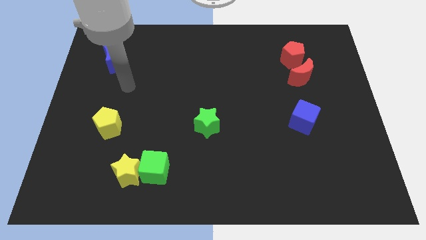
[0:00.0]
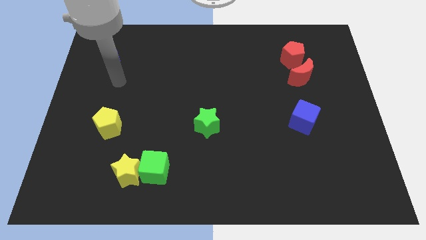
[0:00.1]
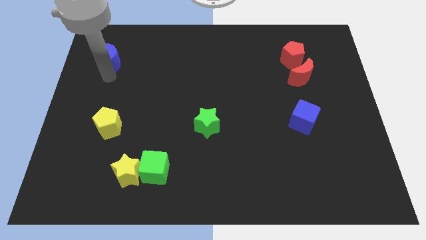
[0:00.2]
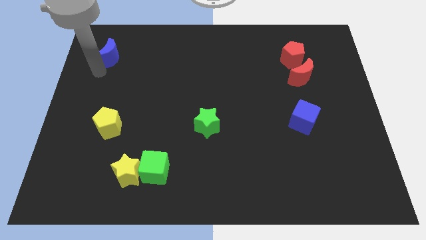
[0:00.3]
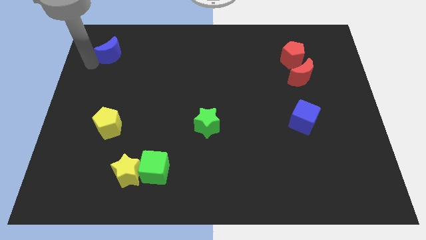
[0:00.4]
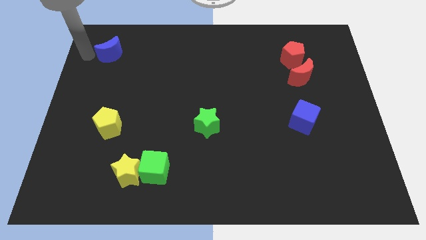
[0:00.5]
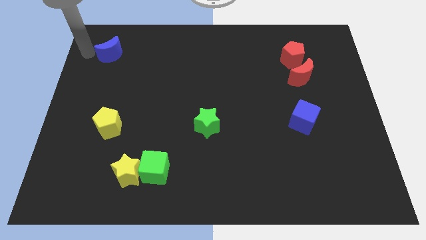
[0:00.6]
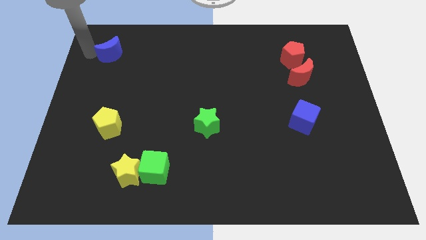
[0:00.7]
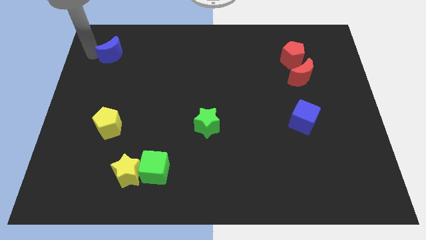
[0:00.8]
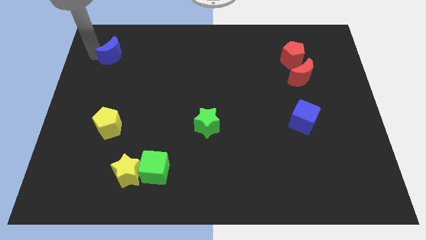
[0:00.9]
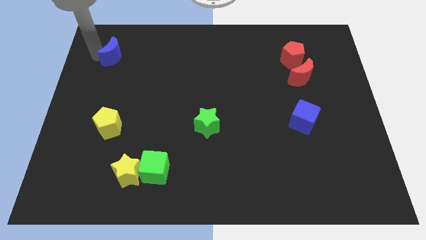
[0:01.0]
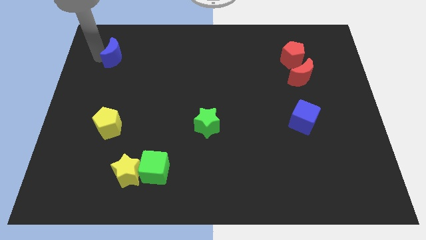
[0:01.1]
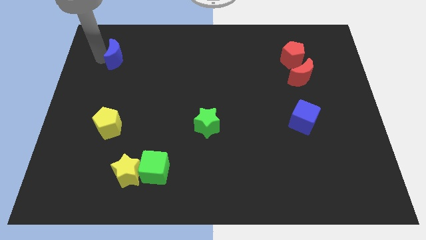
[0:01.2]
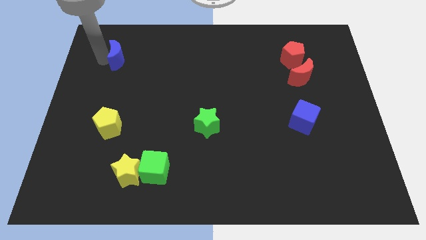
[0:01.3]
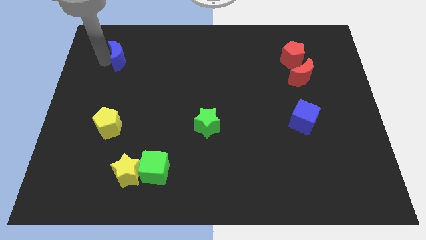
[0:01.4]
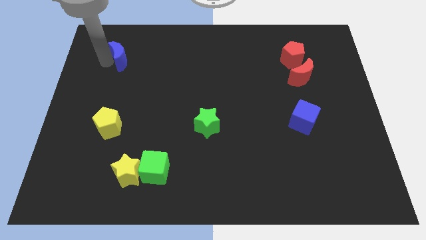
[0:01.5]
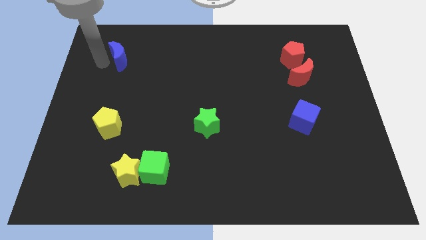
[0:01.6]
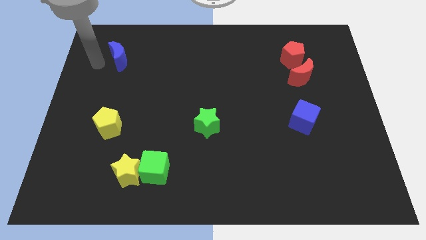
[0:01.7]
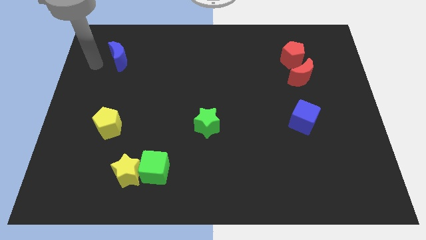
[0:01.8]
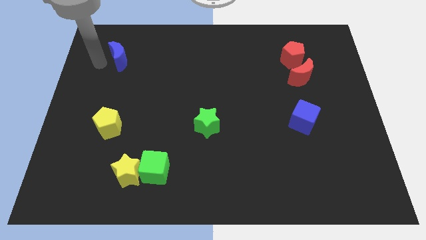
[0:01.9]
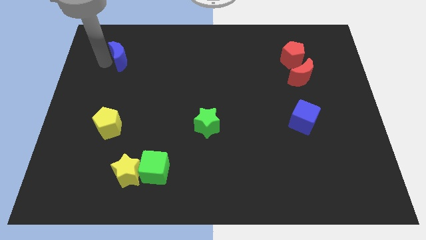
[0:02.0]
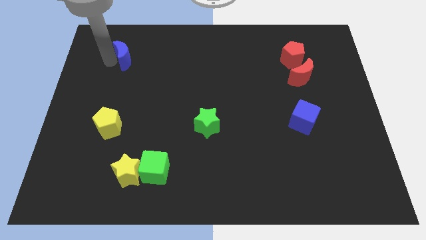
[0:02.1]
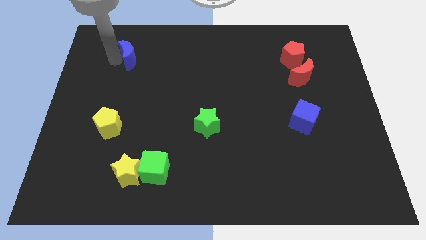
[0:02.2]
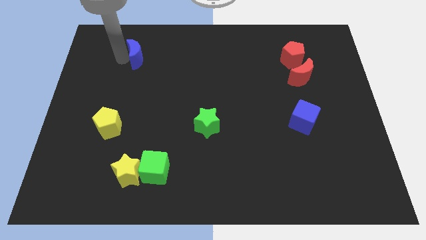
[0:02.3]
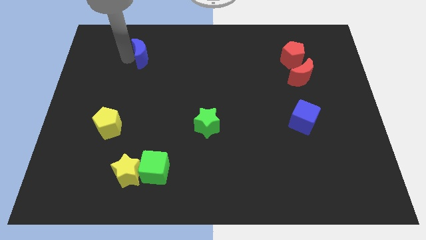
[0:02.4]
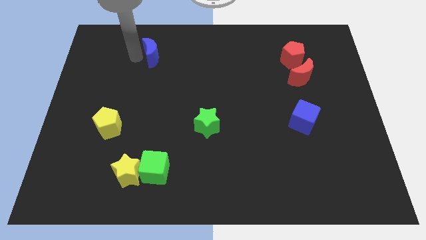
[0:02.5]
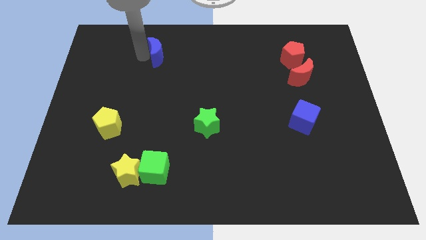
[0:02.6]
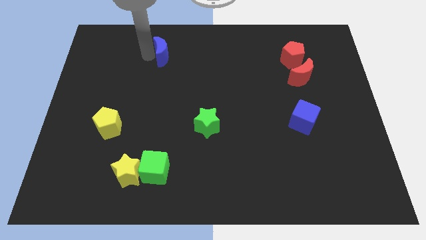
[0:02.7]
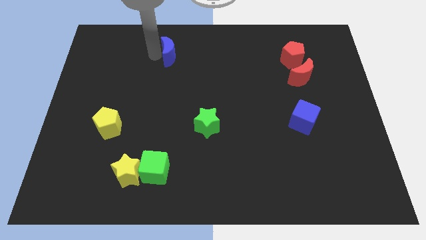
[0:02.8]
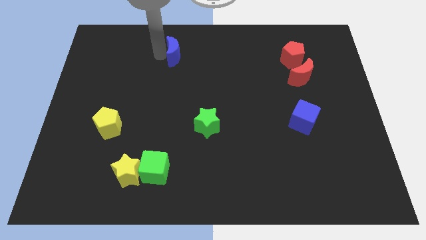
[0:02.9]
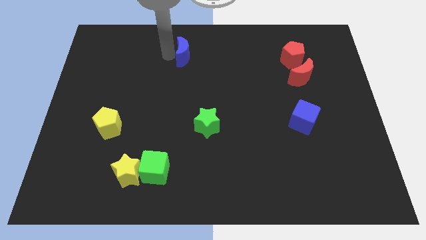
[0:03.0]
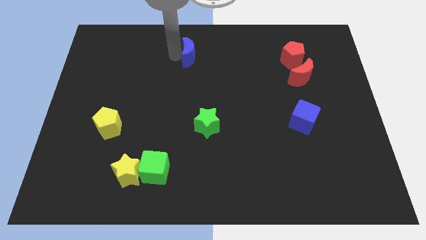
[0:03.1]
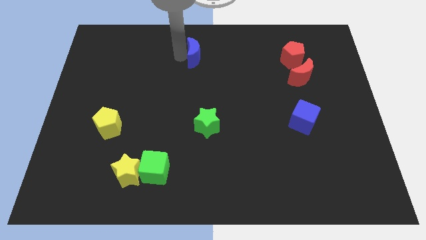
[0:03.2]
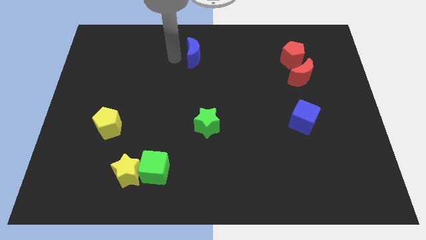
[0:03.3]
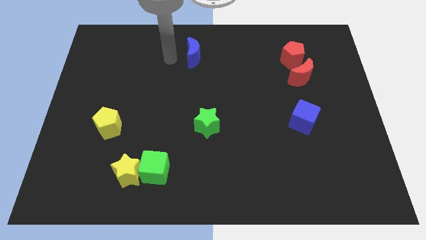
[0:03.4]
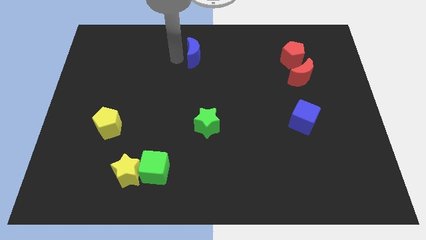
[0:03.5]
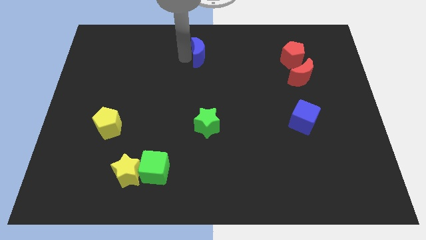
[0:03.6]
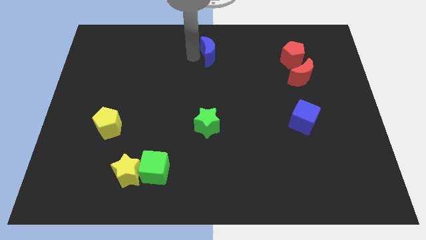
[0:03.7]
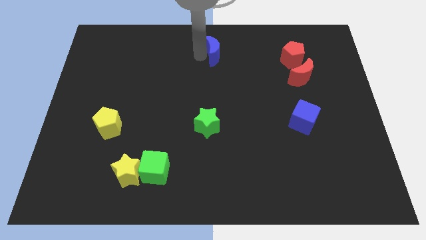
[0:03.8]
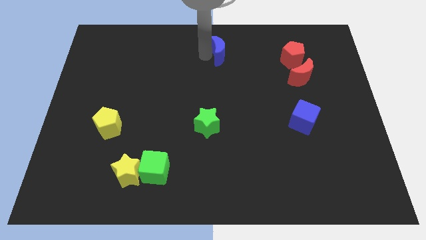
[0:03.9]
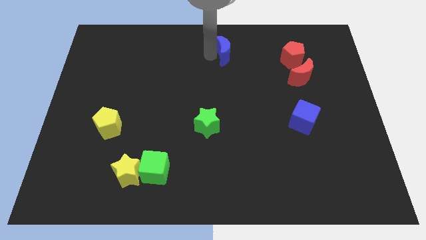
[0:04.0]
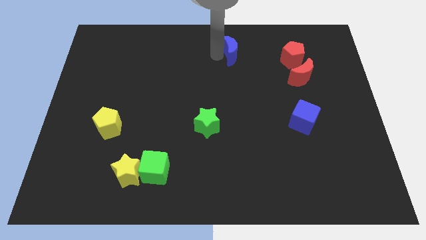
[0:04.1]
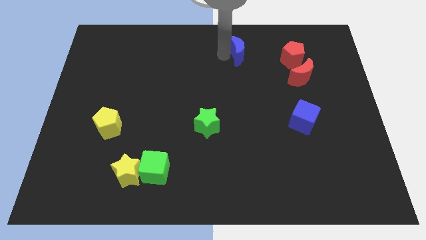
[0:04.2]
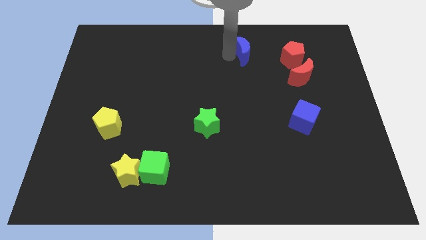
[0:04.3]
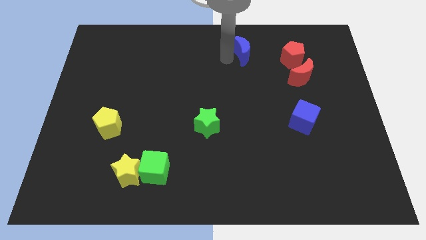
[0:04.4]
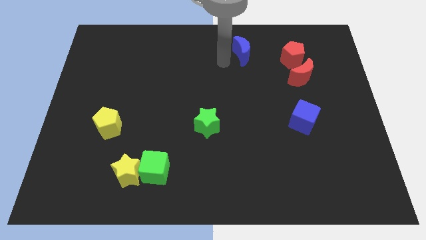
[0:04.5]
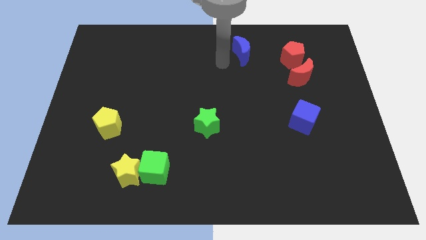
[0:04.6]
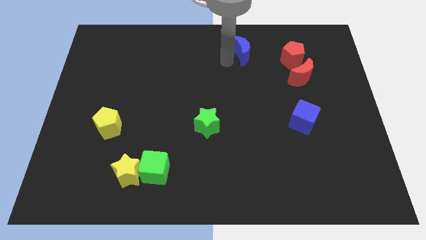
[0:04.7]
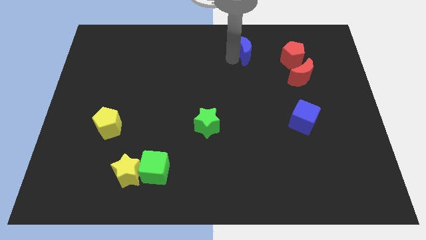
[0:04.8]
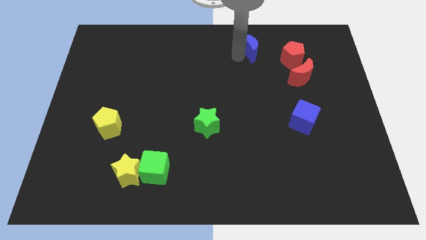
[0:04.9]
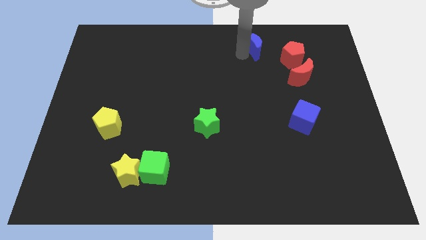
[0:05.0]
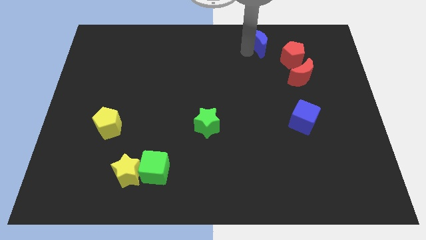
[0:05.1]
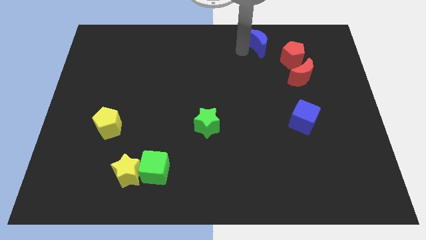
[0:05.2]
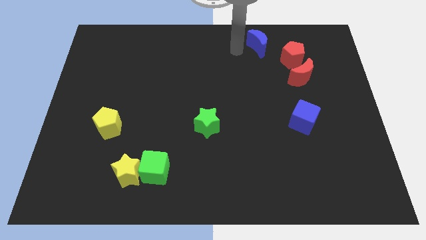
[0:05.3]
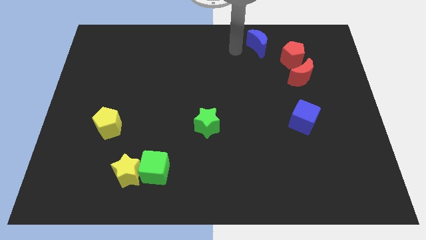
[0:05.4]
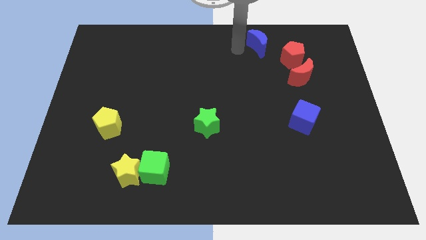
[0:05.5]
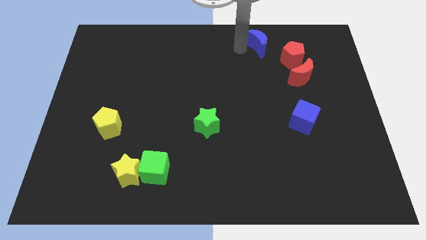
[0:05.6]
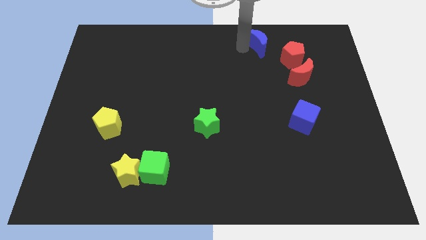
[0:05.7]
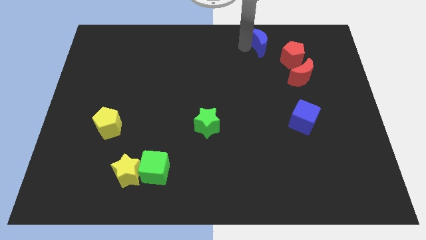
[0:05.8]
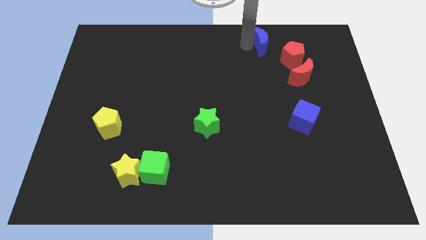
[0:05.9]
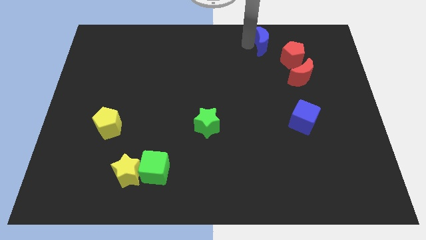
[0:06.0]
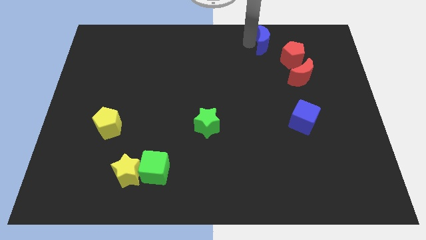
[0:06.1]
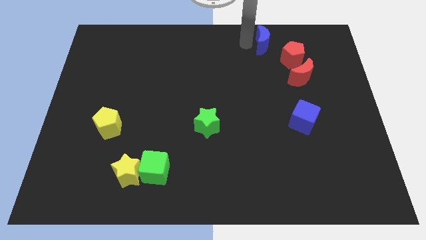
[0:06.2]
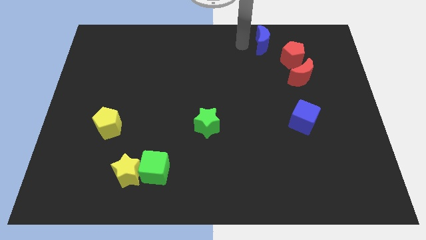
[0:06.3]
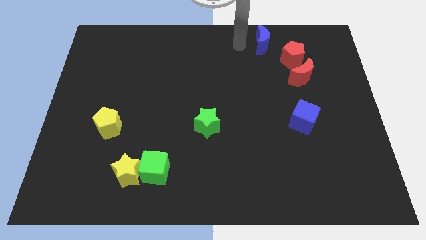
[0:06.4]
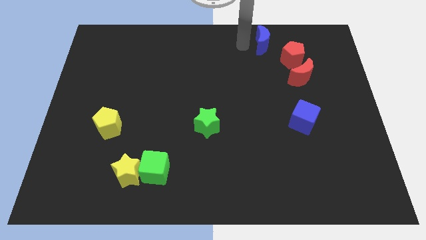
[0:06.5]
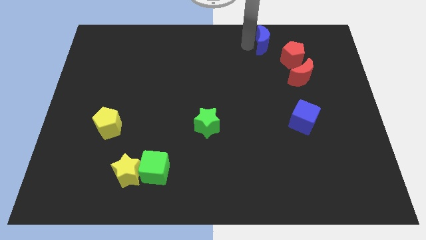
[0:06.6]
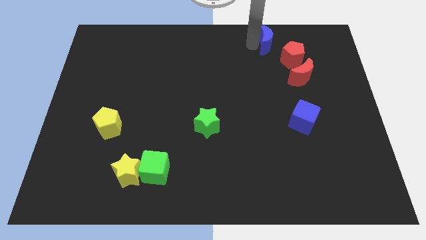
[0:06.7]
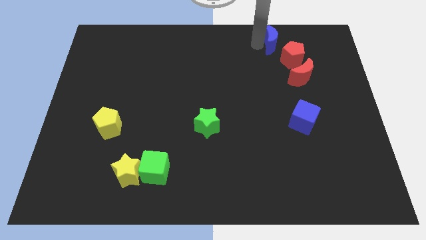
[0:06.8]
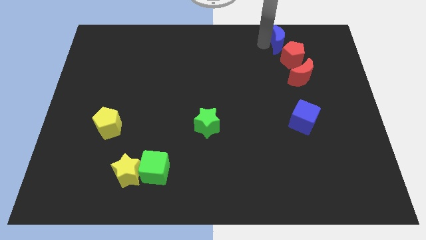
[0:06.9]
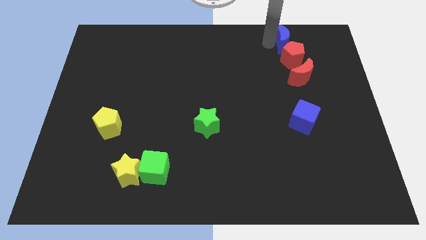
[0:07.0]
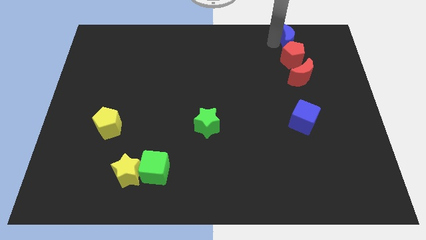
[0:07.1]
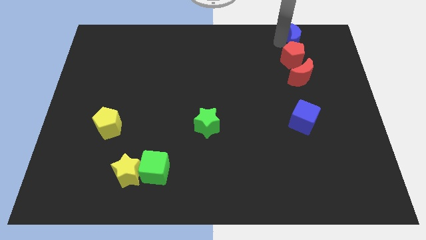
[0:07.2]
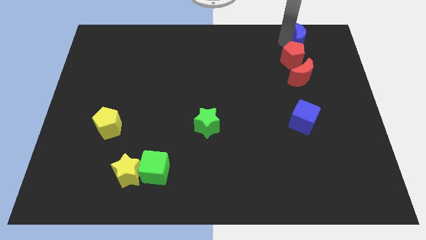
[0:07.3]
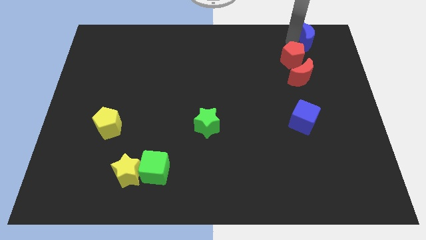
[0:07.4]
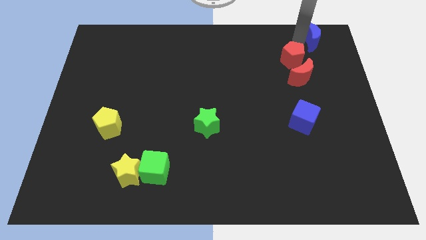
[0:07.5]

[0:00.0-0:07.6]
put the blue moon to the top right of the board
